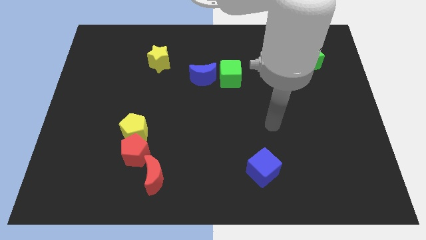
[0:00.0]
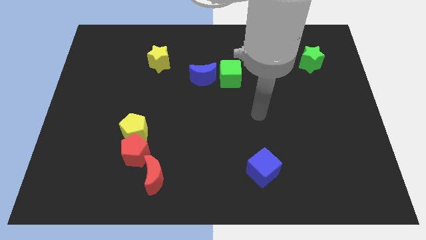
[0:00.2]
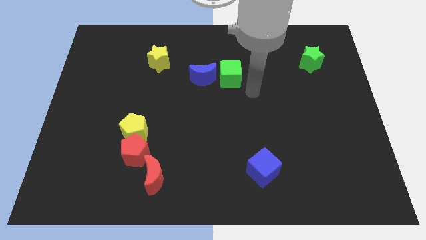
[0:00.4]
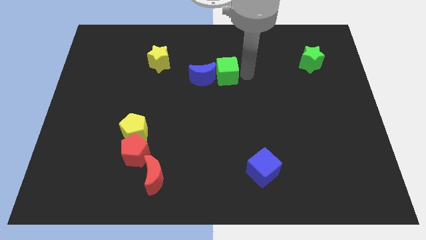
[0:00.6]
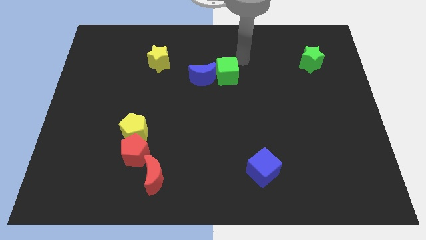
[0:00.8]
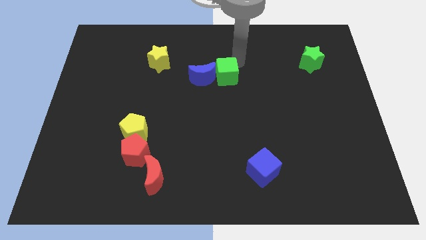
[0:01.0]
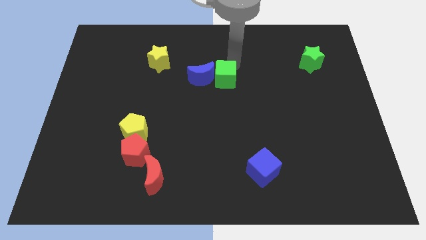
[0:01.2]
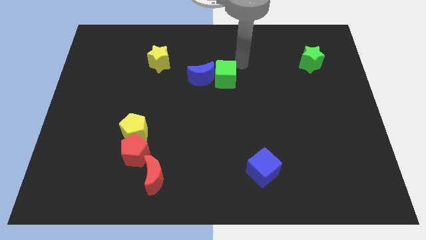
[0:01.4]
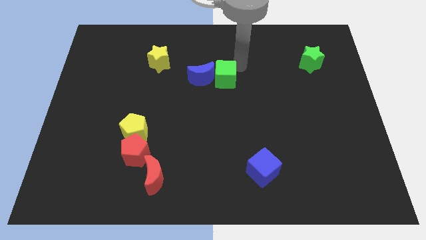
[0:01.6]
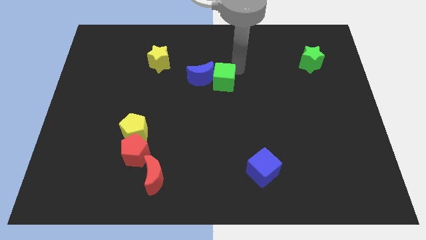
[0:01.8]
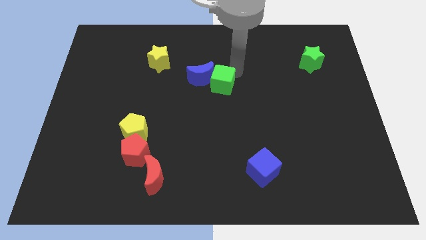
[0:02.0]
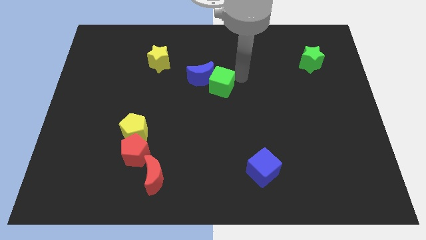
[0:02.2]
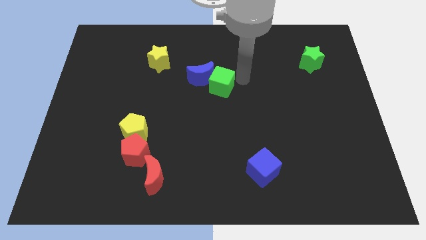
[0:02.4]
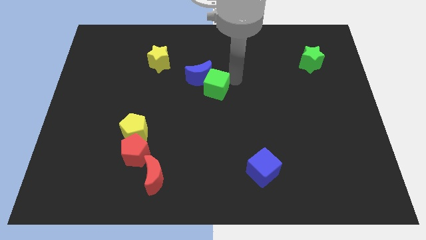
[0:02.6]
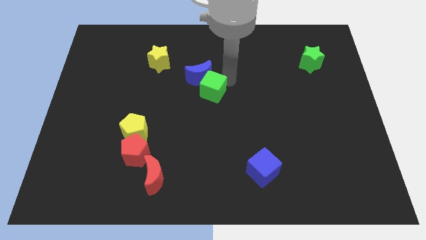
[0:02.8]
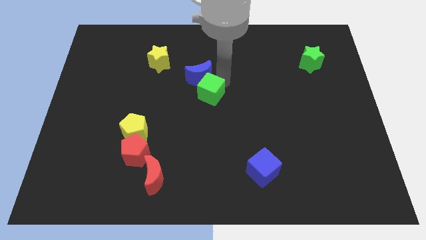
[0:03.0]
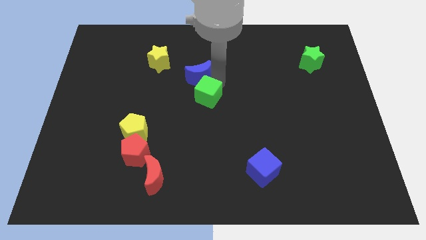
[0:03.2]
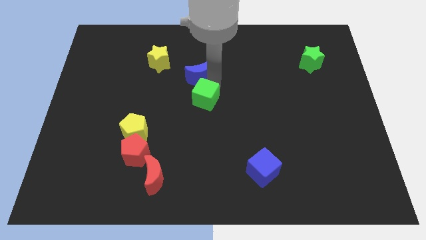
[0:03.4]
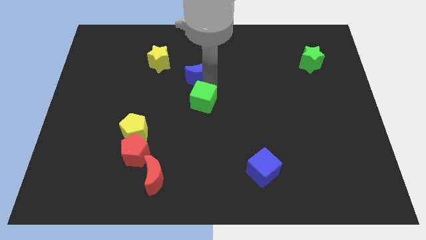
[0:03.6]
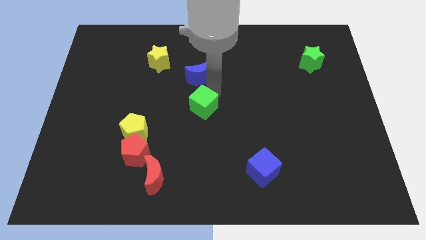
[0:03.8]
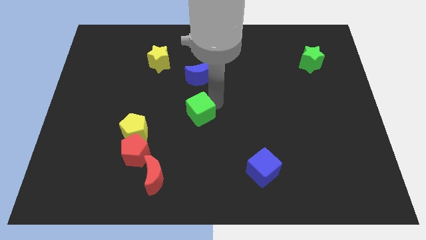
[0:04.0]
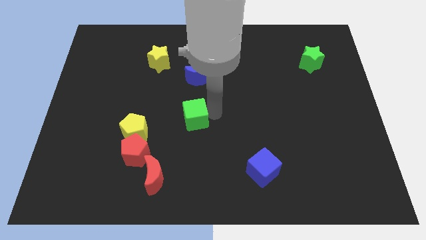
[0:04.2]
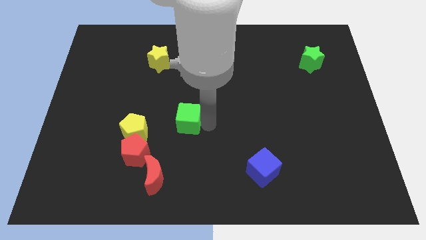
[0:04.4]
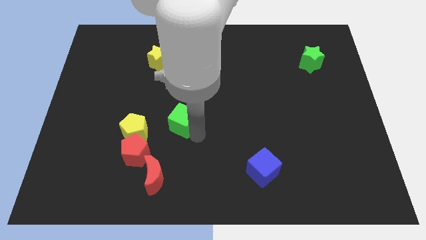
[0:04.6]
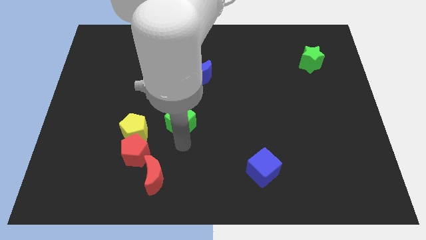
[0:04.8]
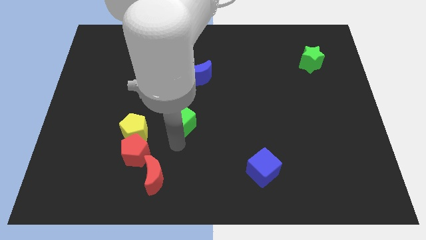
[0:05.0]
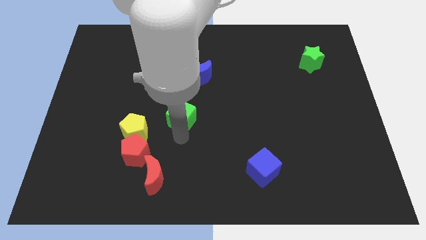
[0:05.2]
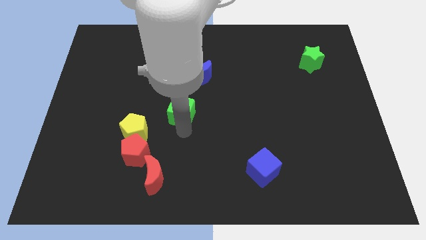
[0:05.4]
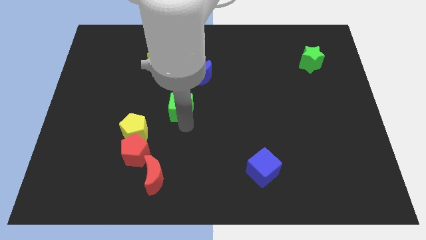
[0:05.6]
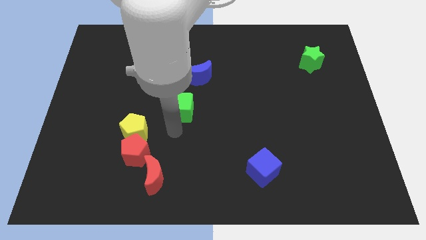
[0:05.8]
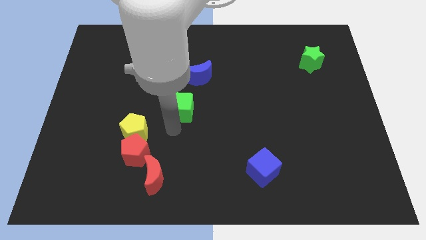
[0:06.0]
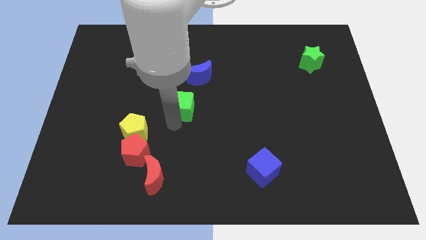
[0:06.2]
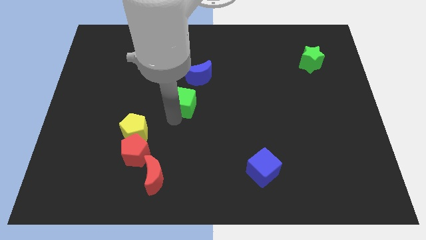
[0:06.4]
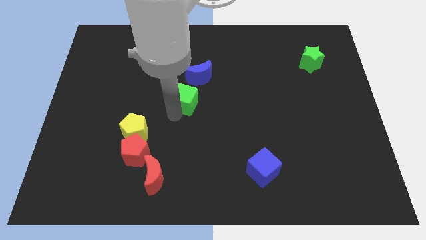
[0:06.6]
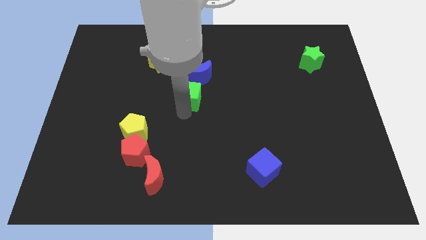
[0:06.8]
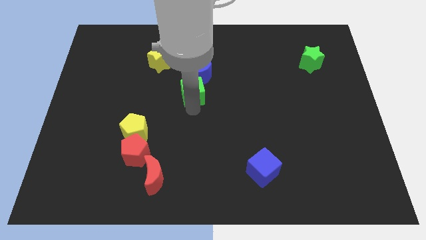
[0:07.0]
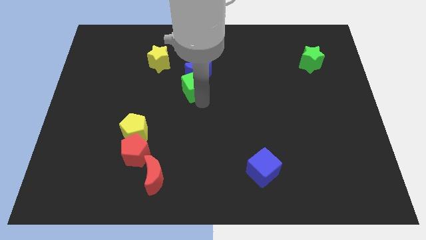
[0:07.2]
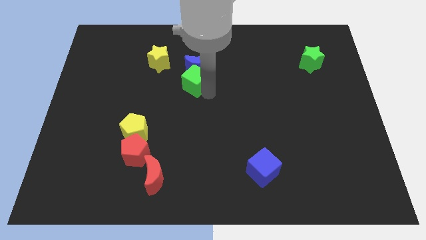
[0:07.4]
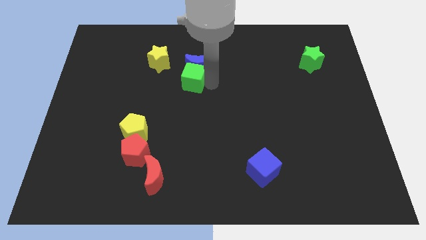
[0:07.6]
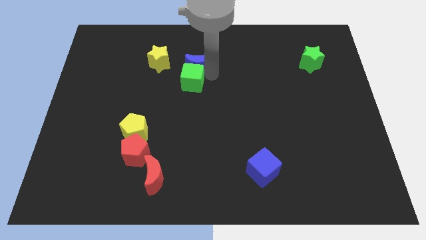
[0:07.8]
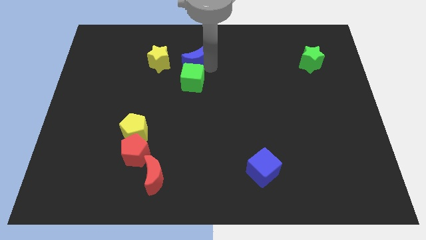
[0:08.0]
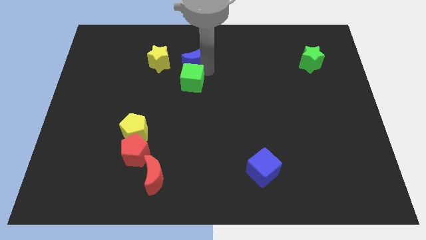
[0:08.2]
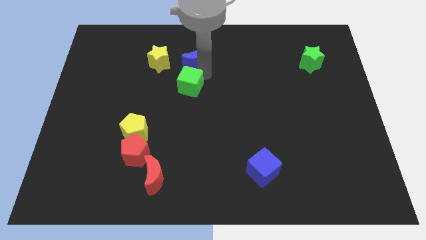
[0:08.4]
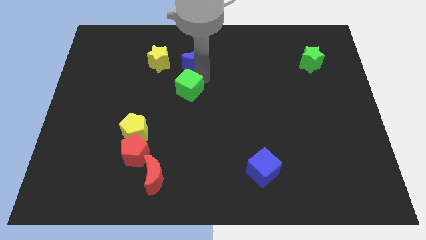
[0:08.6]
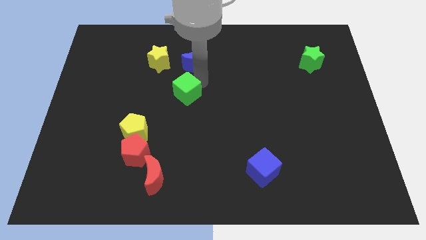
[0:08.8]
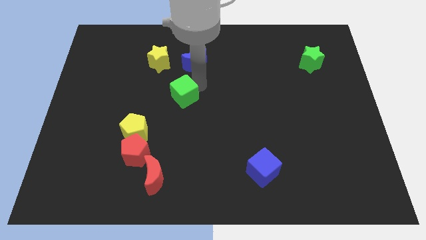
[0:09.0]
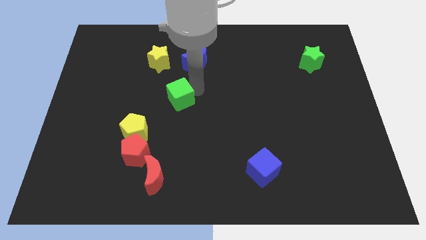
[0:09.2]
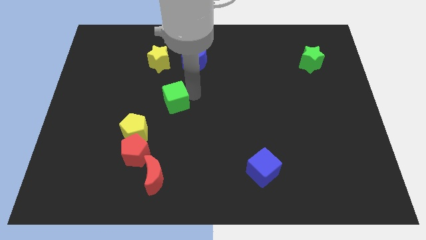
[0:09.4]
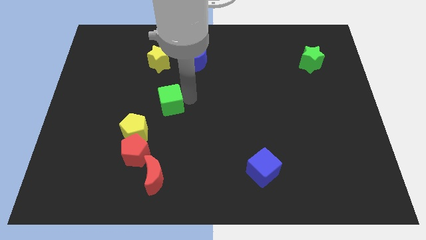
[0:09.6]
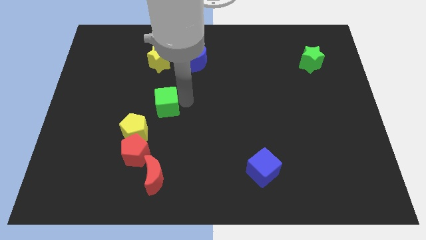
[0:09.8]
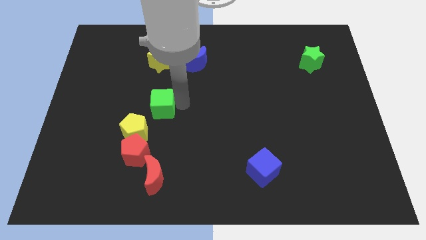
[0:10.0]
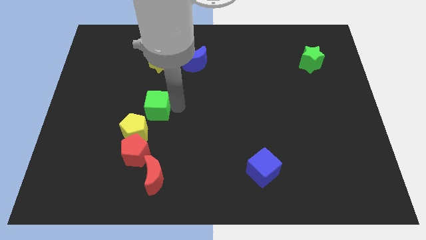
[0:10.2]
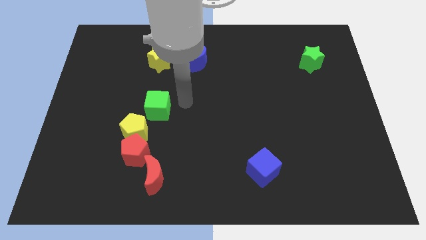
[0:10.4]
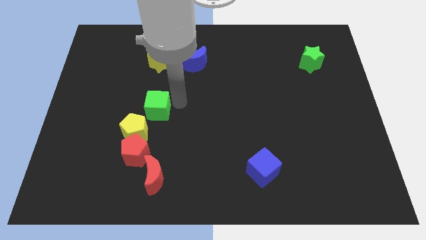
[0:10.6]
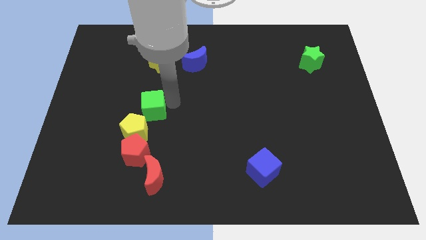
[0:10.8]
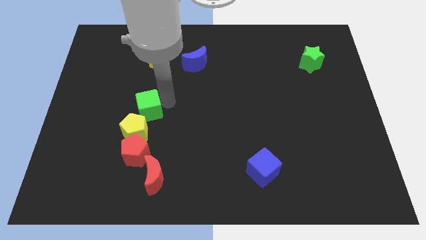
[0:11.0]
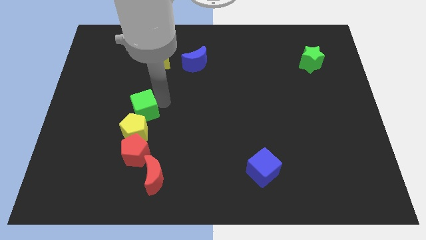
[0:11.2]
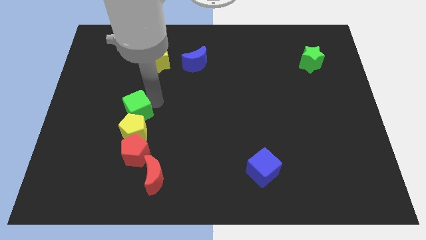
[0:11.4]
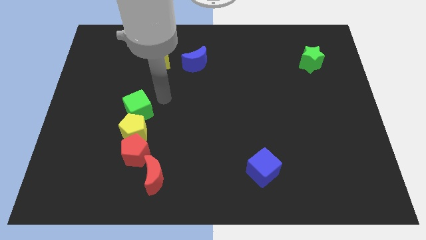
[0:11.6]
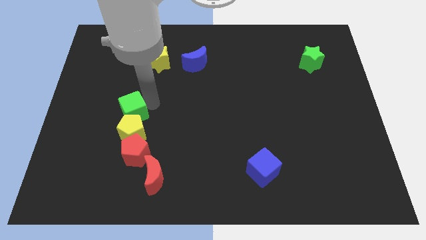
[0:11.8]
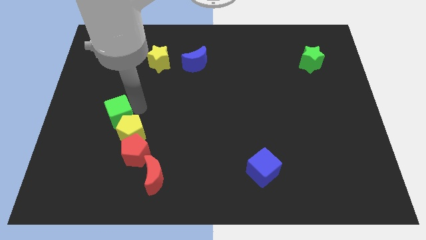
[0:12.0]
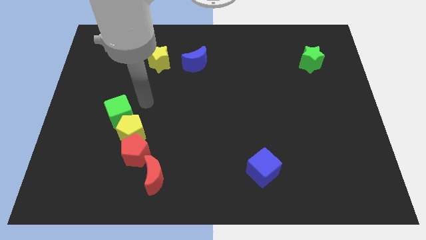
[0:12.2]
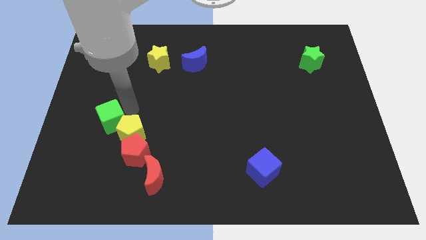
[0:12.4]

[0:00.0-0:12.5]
push the green cube left of the yellow pentagon

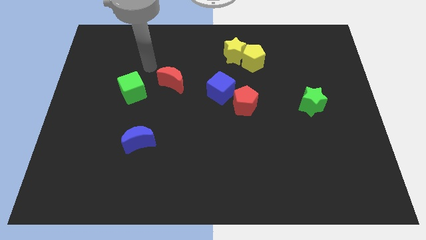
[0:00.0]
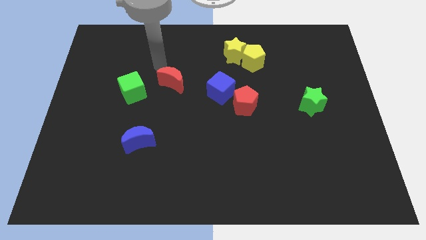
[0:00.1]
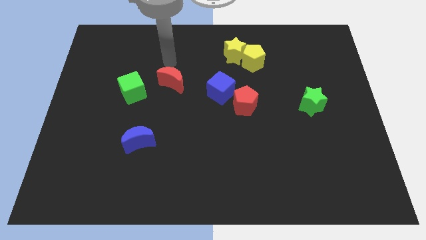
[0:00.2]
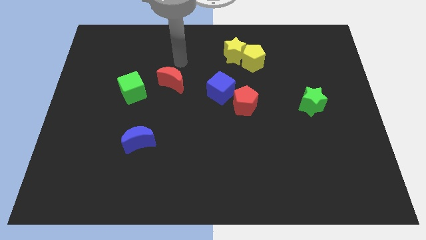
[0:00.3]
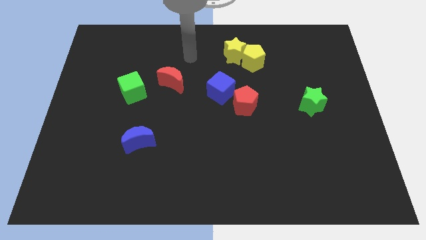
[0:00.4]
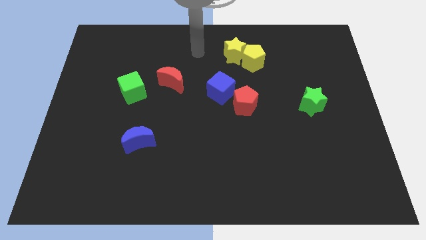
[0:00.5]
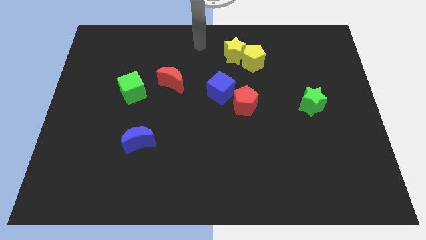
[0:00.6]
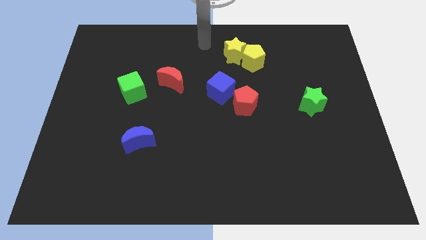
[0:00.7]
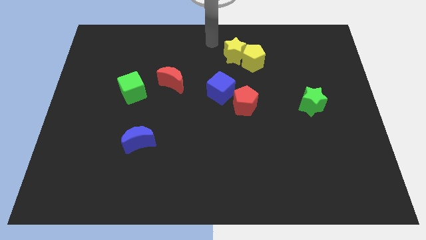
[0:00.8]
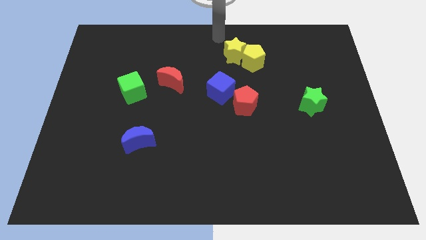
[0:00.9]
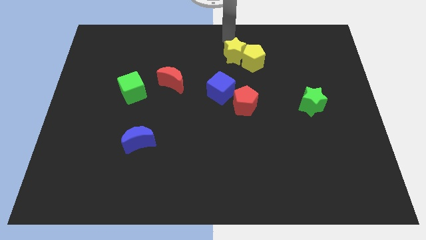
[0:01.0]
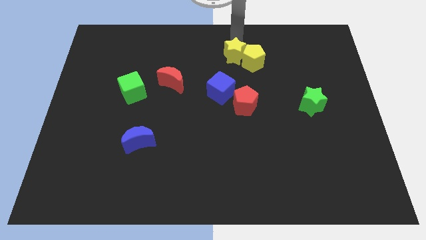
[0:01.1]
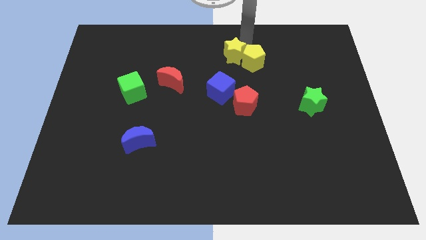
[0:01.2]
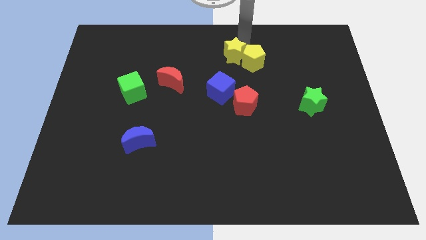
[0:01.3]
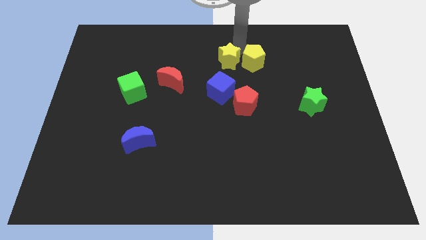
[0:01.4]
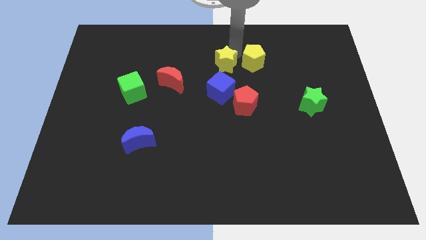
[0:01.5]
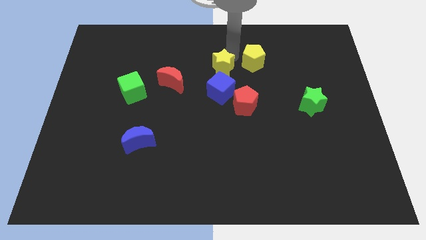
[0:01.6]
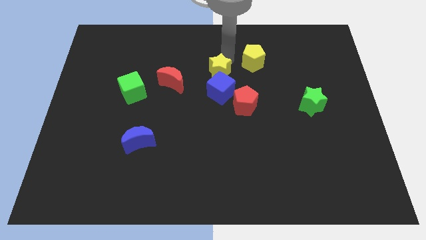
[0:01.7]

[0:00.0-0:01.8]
put the yellow star diagonally up and to the left of the red pentagon
